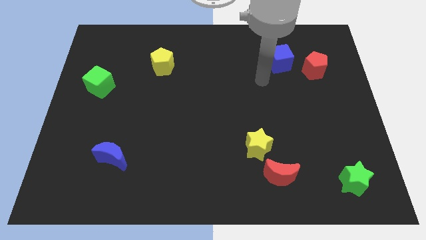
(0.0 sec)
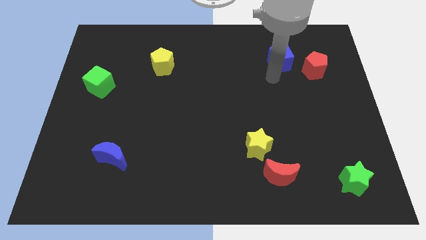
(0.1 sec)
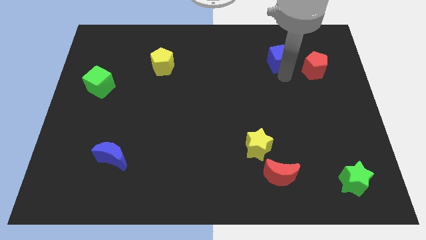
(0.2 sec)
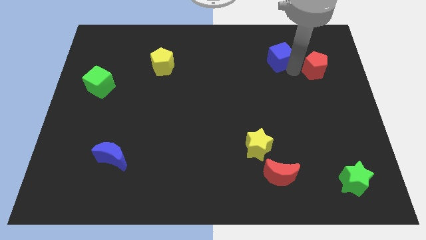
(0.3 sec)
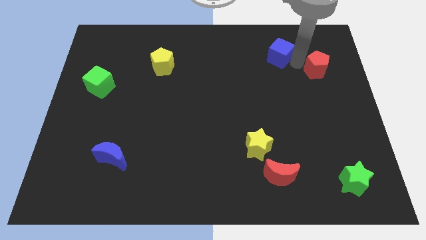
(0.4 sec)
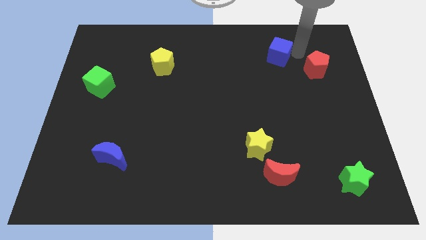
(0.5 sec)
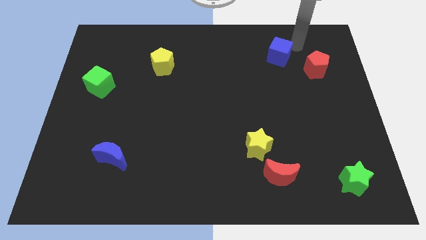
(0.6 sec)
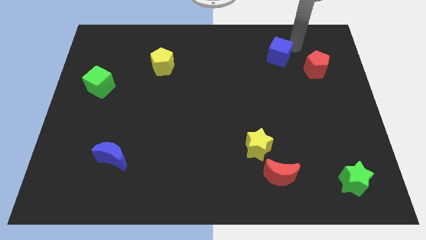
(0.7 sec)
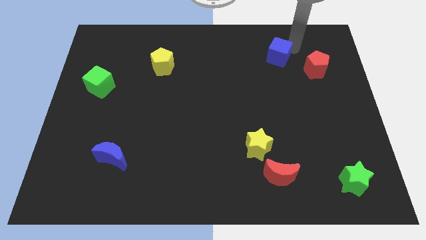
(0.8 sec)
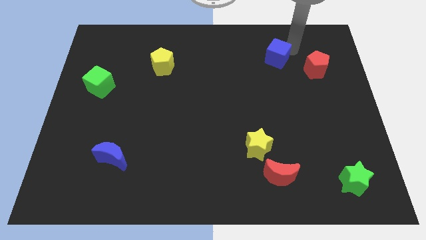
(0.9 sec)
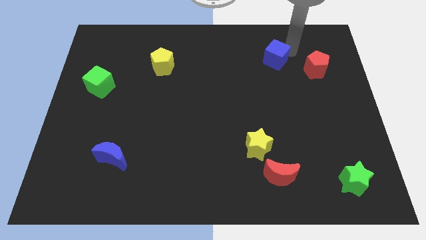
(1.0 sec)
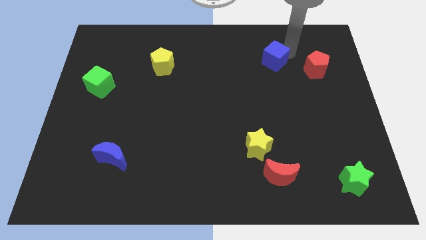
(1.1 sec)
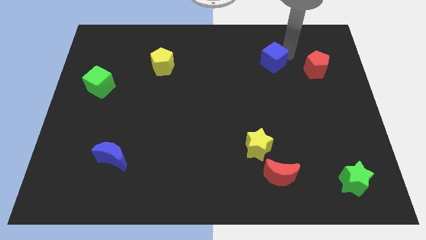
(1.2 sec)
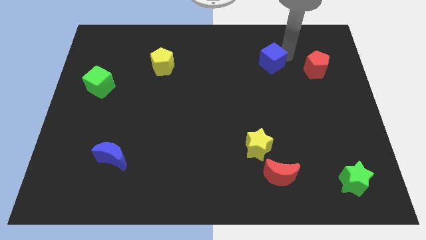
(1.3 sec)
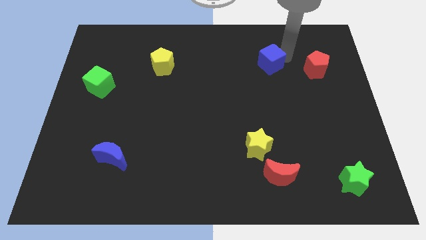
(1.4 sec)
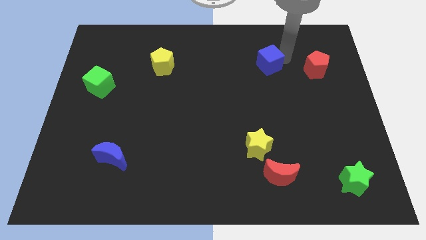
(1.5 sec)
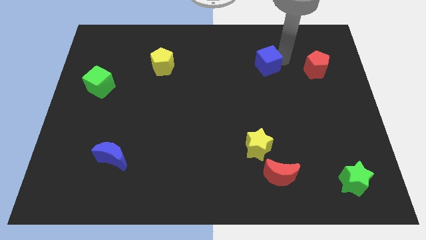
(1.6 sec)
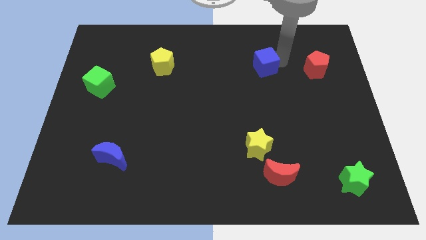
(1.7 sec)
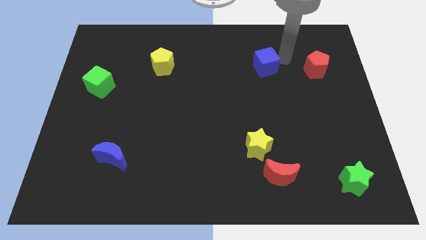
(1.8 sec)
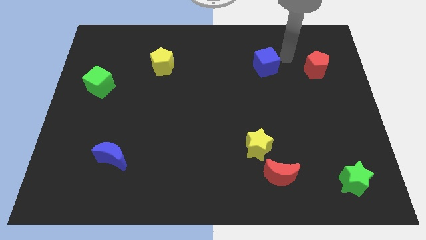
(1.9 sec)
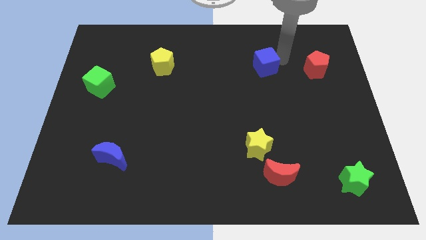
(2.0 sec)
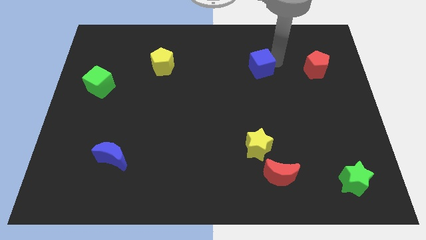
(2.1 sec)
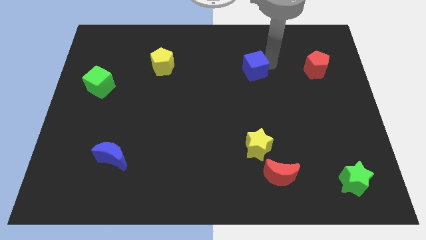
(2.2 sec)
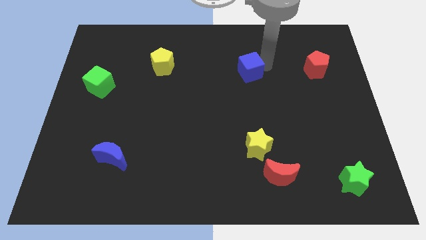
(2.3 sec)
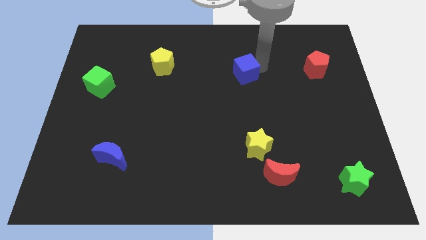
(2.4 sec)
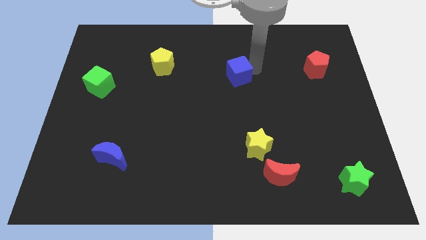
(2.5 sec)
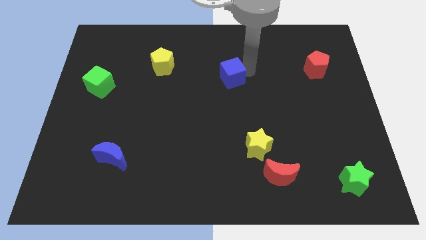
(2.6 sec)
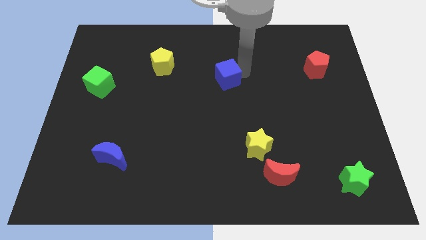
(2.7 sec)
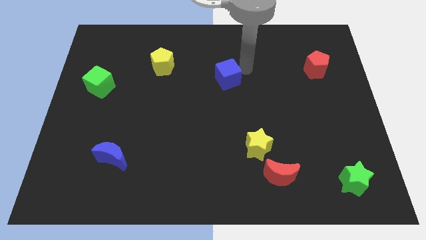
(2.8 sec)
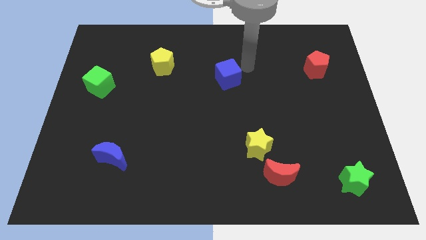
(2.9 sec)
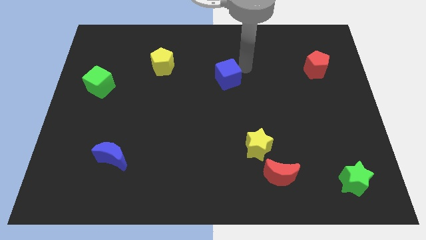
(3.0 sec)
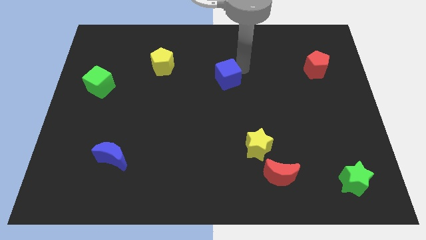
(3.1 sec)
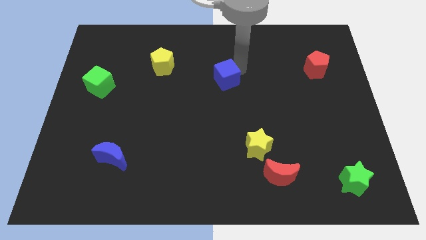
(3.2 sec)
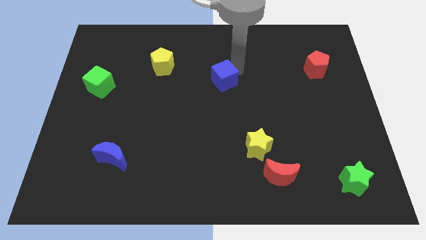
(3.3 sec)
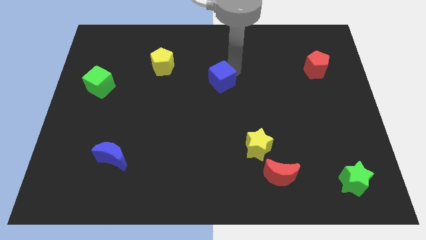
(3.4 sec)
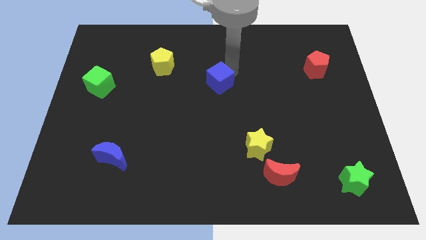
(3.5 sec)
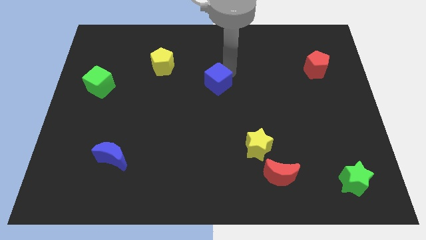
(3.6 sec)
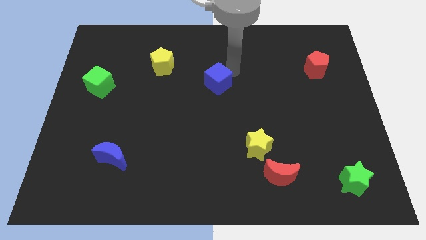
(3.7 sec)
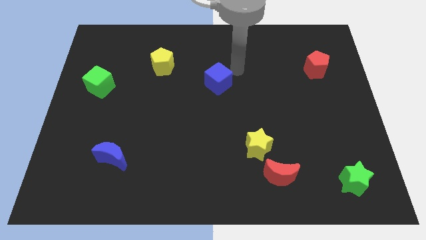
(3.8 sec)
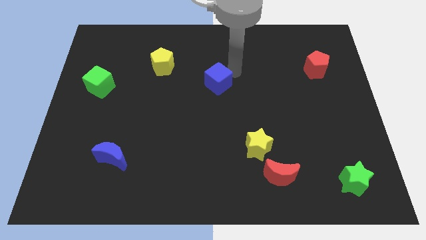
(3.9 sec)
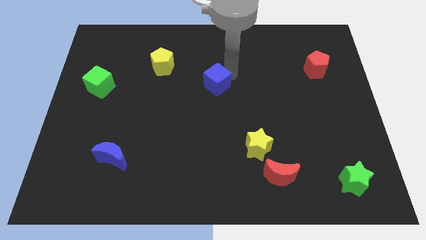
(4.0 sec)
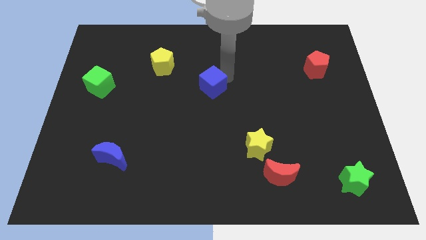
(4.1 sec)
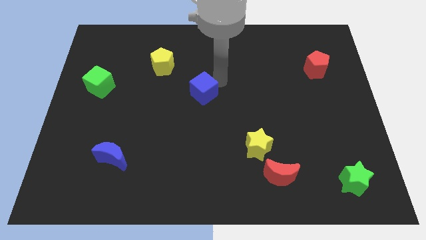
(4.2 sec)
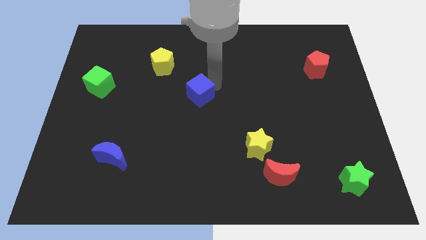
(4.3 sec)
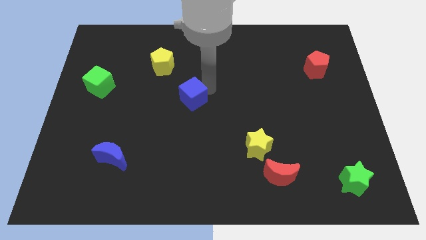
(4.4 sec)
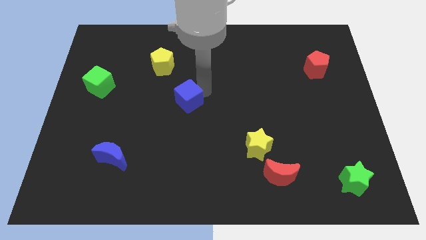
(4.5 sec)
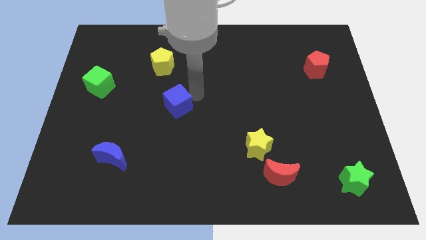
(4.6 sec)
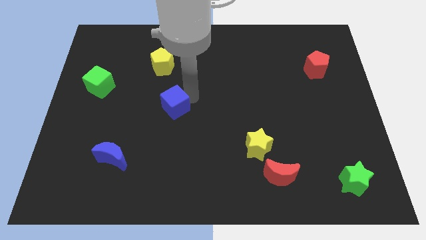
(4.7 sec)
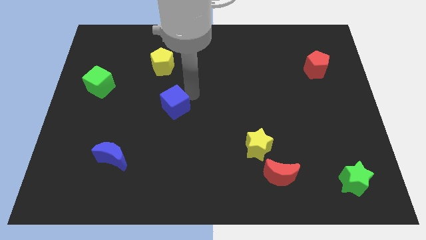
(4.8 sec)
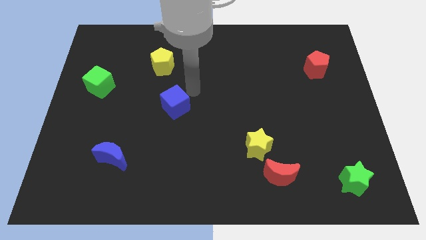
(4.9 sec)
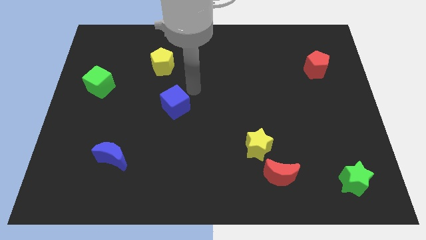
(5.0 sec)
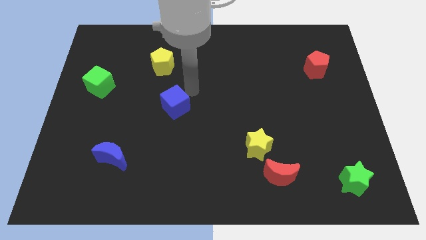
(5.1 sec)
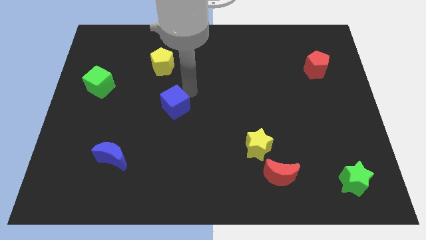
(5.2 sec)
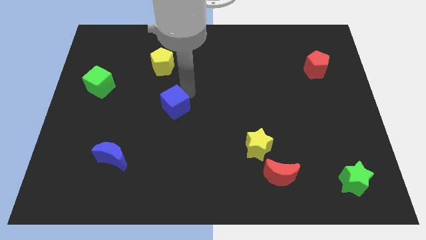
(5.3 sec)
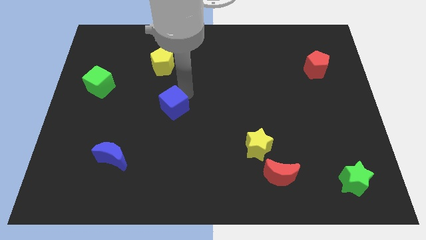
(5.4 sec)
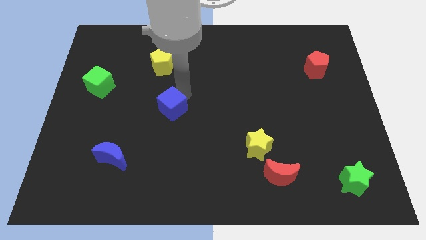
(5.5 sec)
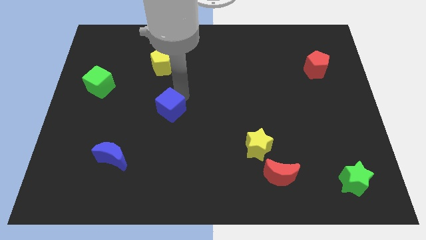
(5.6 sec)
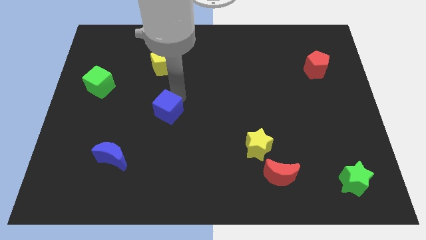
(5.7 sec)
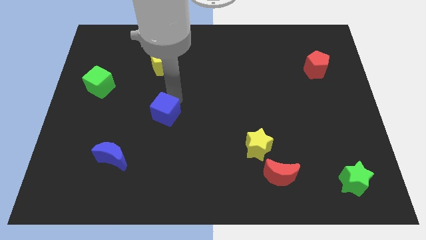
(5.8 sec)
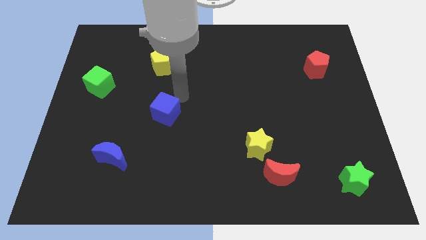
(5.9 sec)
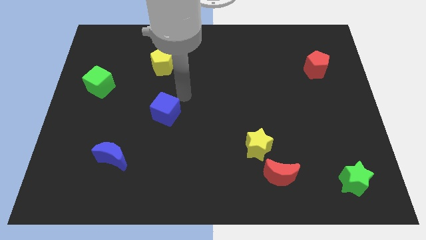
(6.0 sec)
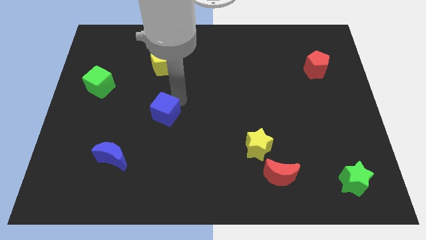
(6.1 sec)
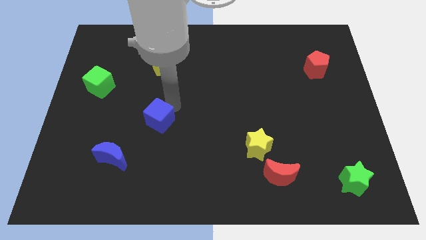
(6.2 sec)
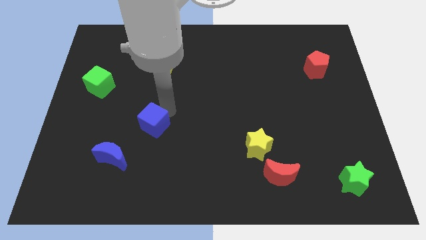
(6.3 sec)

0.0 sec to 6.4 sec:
slide the blue cube diagonally up and to the right of the blue moon
